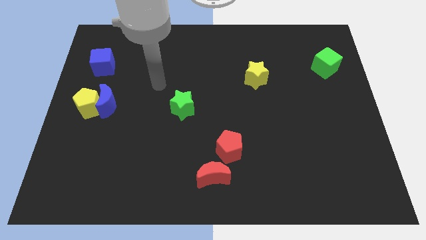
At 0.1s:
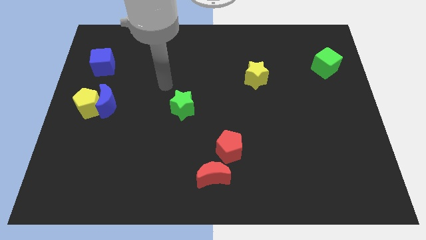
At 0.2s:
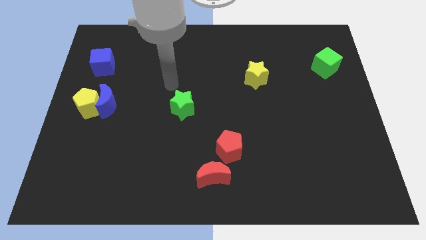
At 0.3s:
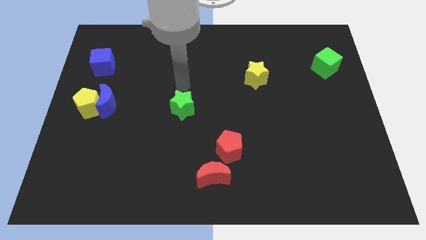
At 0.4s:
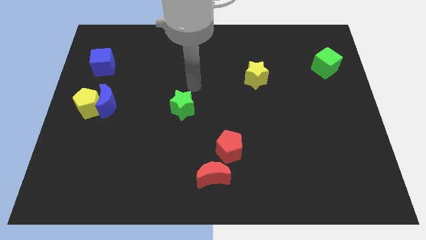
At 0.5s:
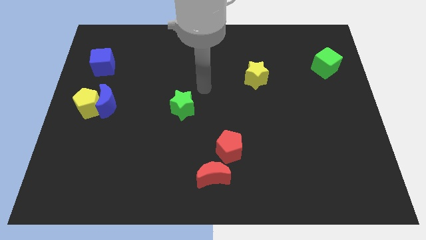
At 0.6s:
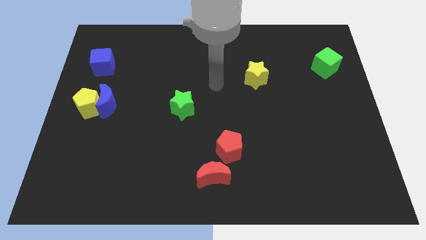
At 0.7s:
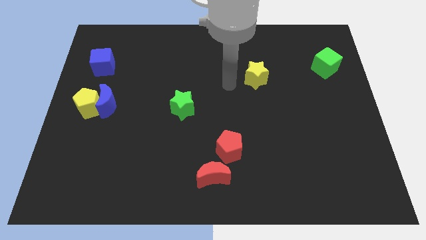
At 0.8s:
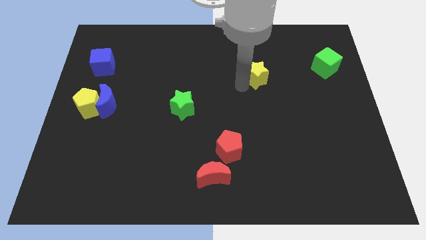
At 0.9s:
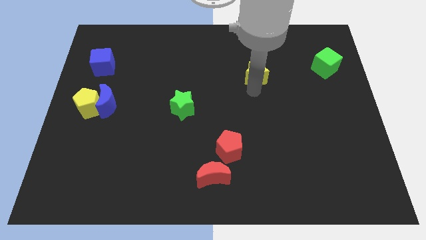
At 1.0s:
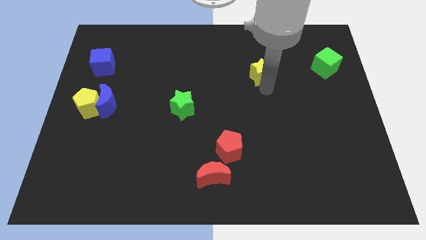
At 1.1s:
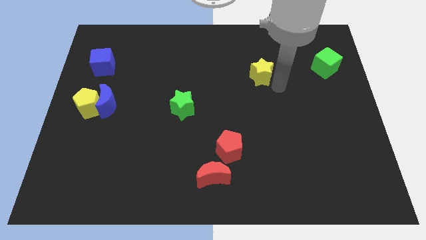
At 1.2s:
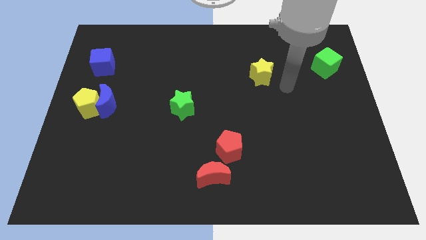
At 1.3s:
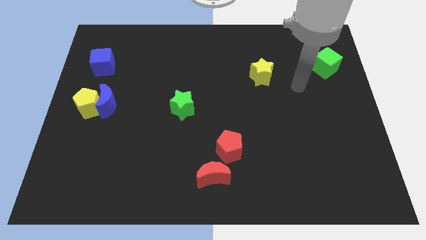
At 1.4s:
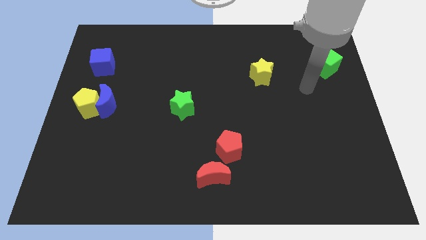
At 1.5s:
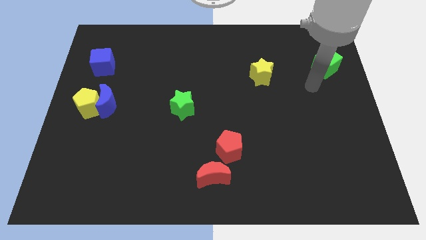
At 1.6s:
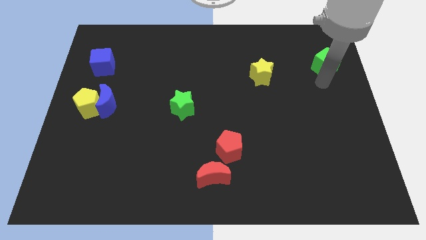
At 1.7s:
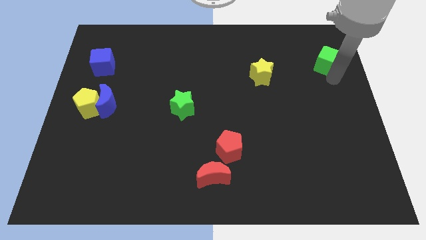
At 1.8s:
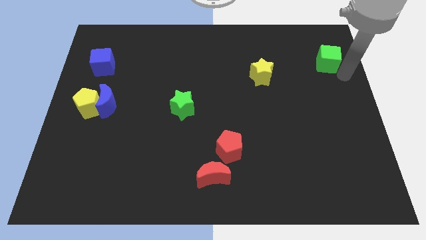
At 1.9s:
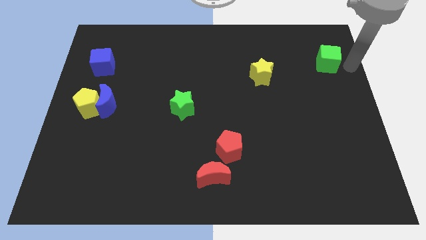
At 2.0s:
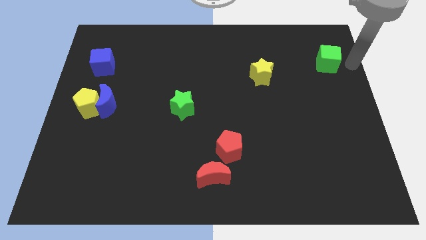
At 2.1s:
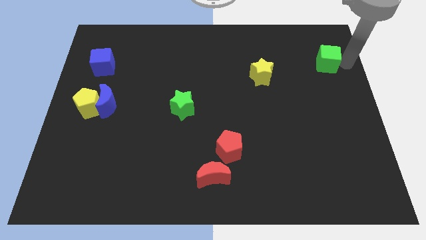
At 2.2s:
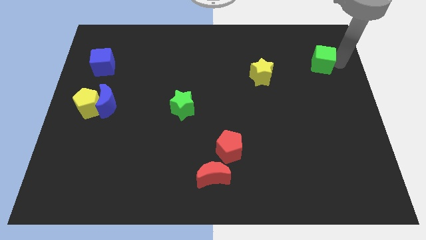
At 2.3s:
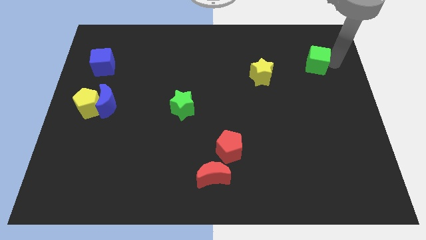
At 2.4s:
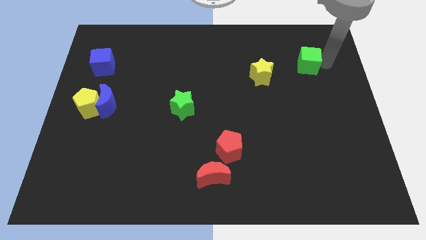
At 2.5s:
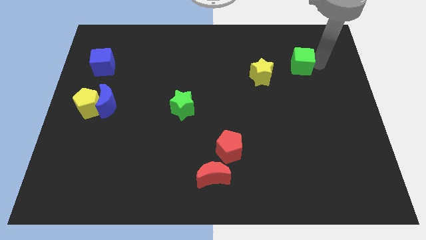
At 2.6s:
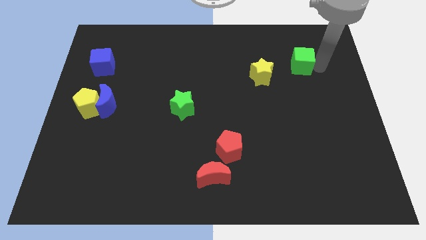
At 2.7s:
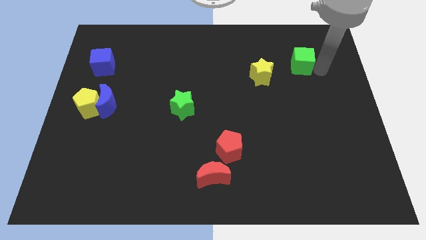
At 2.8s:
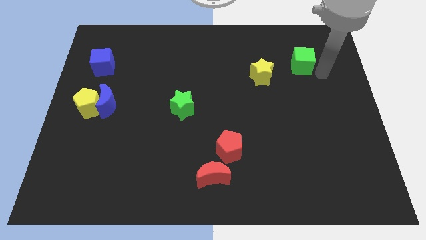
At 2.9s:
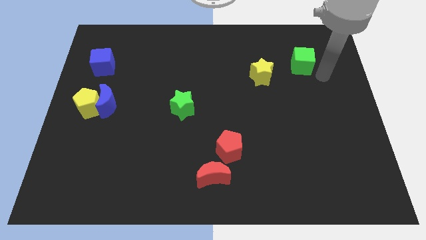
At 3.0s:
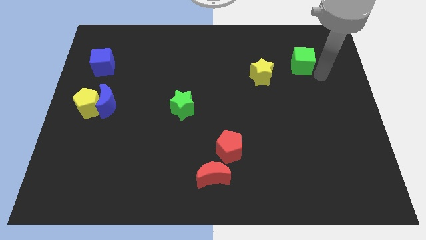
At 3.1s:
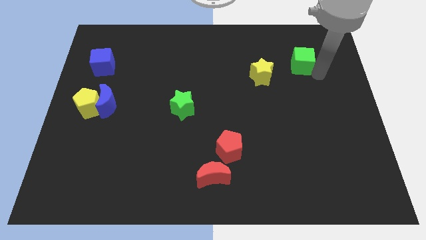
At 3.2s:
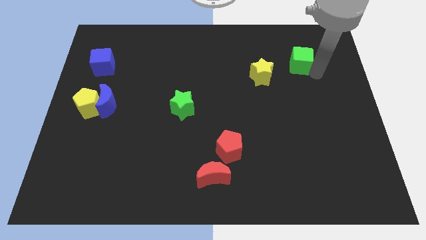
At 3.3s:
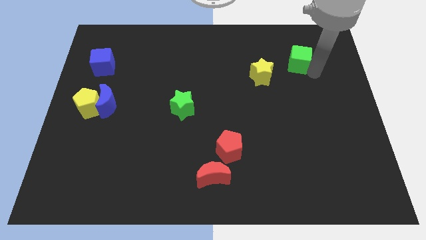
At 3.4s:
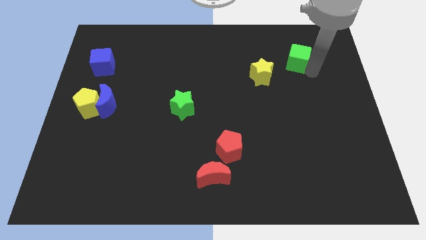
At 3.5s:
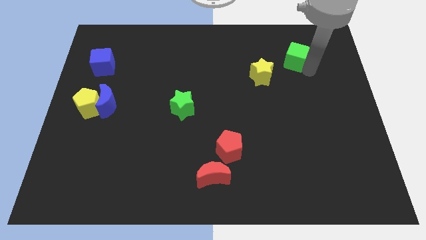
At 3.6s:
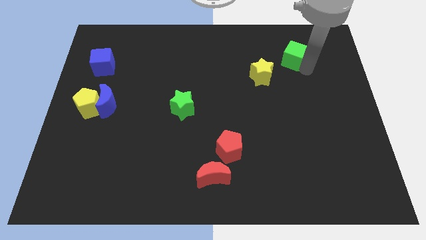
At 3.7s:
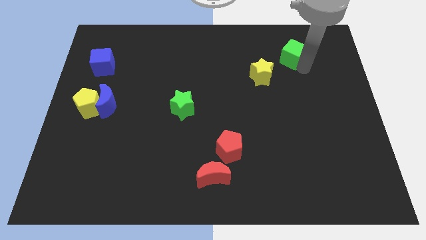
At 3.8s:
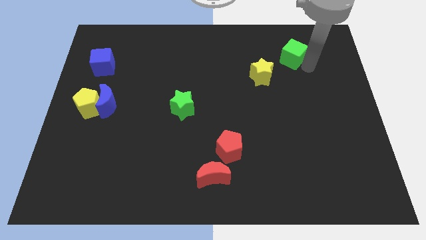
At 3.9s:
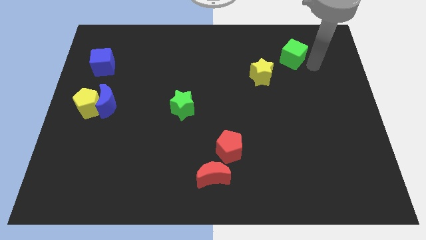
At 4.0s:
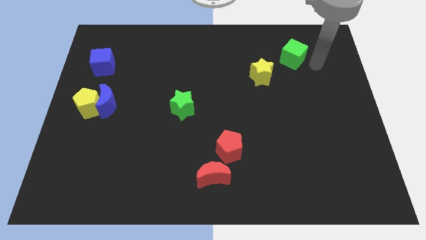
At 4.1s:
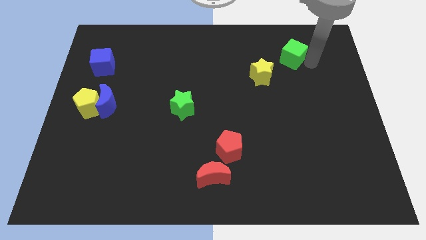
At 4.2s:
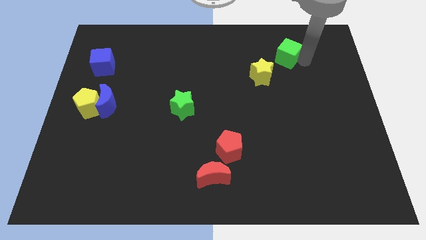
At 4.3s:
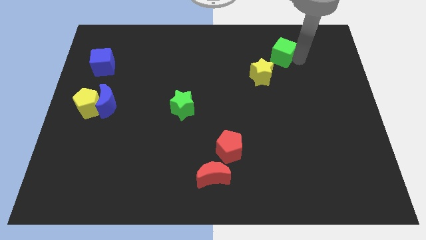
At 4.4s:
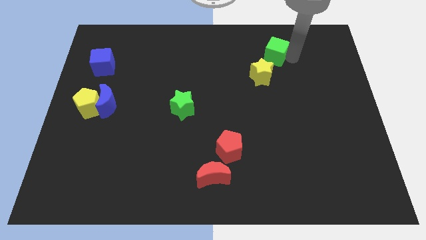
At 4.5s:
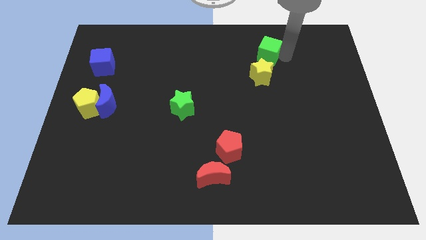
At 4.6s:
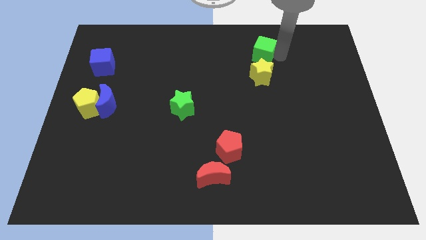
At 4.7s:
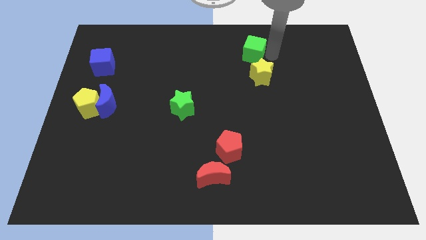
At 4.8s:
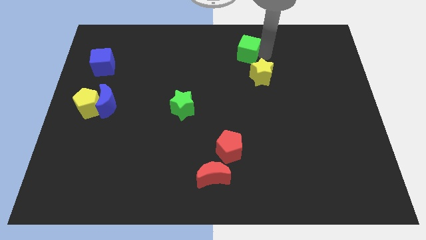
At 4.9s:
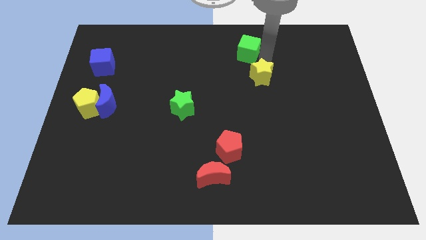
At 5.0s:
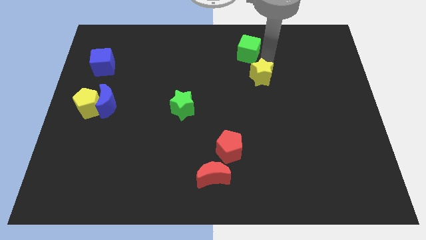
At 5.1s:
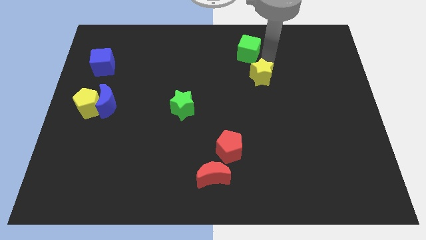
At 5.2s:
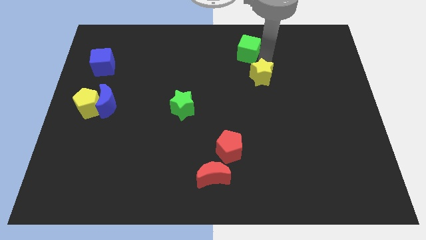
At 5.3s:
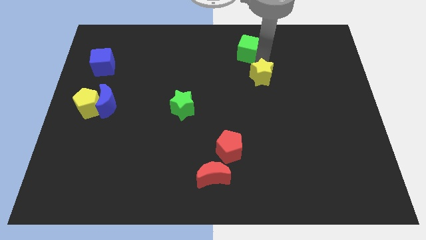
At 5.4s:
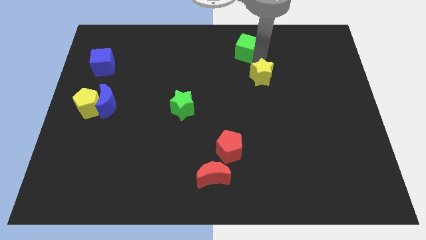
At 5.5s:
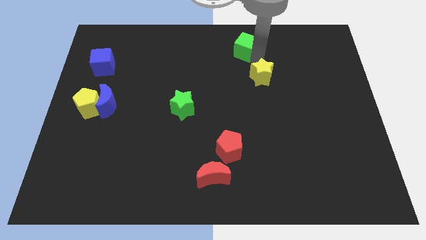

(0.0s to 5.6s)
slide the green cube to the top

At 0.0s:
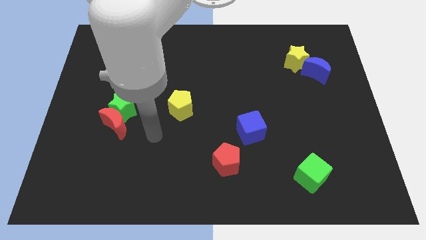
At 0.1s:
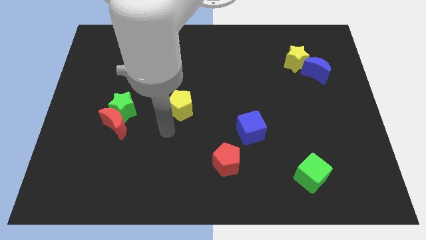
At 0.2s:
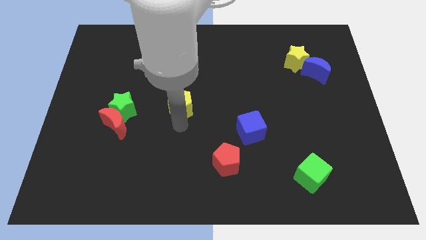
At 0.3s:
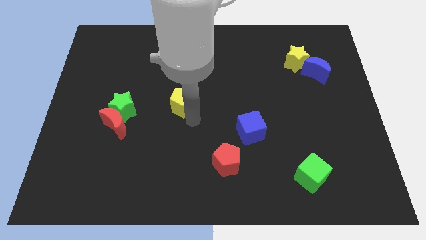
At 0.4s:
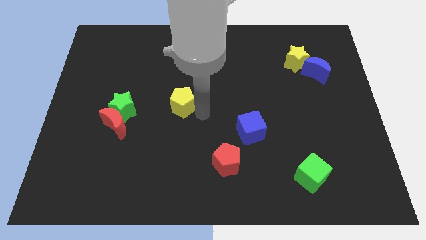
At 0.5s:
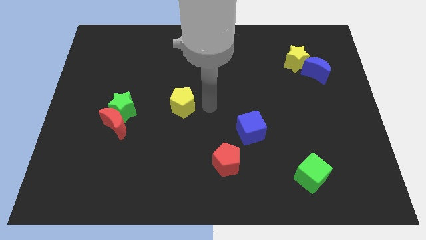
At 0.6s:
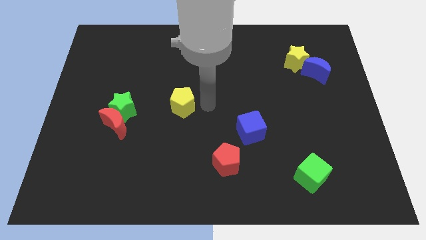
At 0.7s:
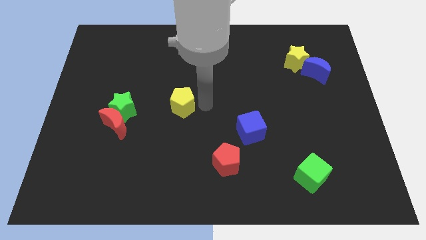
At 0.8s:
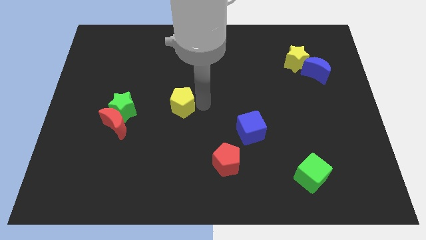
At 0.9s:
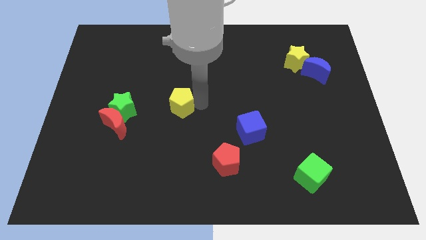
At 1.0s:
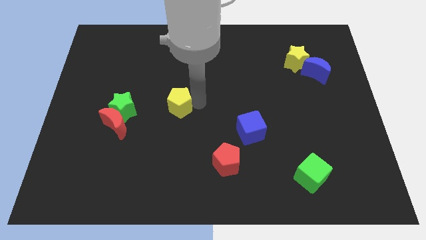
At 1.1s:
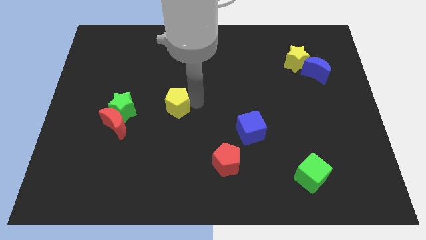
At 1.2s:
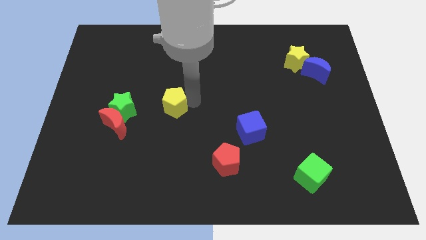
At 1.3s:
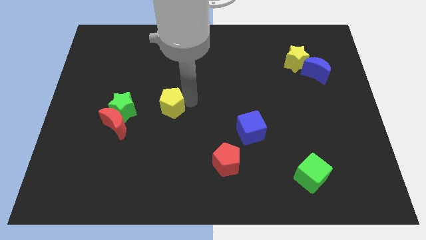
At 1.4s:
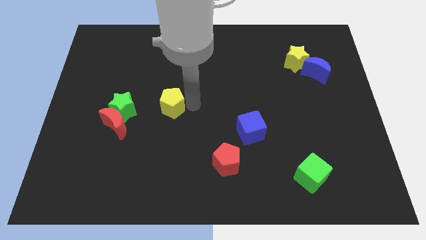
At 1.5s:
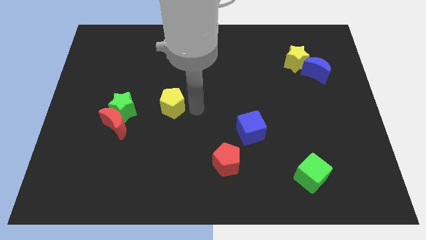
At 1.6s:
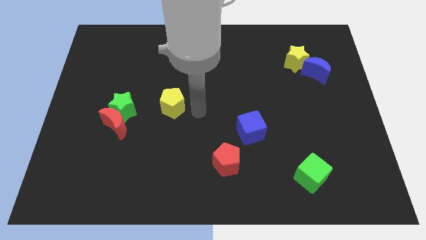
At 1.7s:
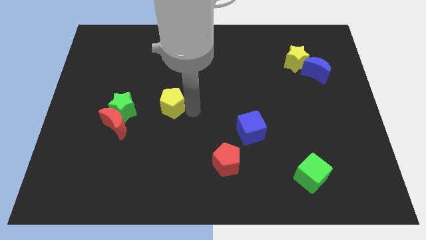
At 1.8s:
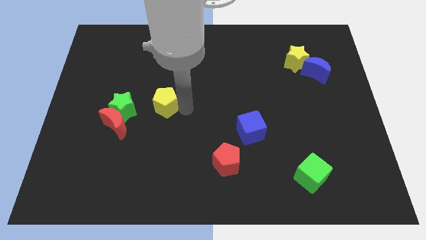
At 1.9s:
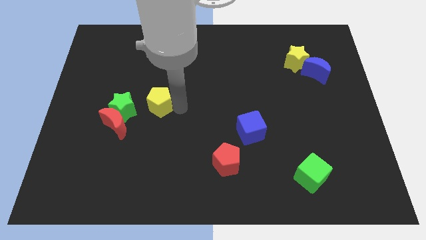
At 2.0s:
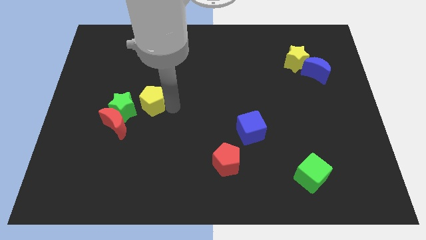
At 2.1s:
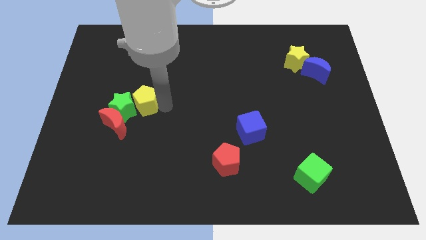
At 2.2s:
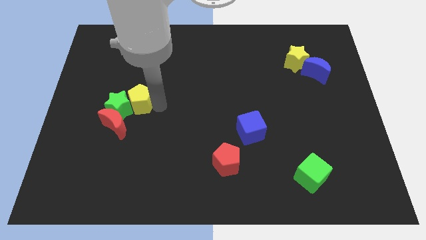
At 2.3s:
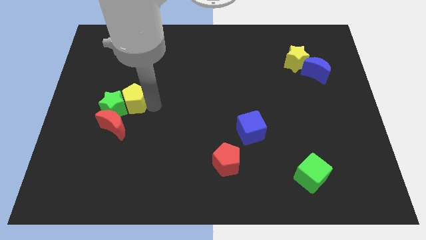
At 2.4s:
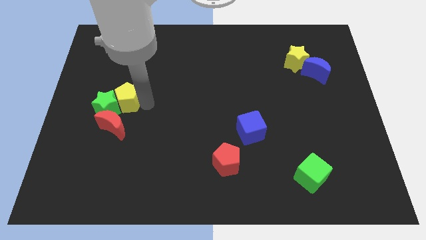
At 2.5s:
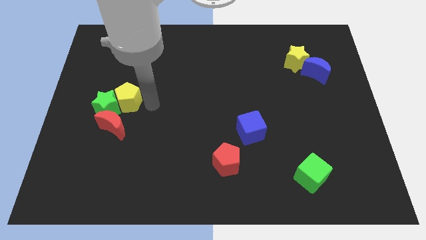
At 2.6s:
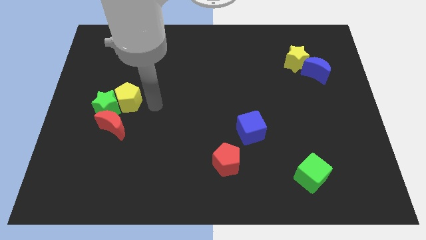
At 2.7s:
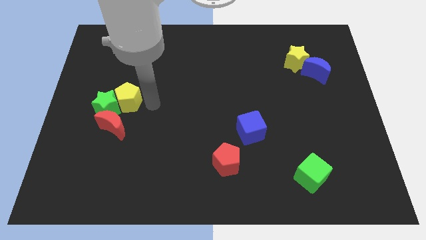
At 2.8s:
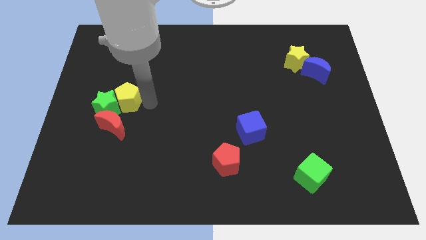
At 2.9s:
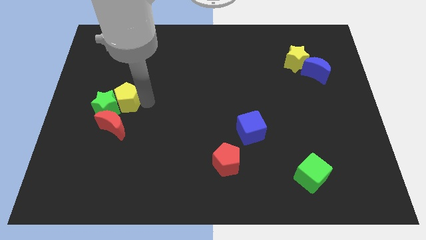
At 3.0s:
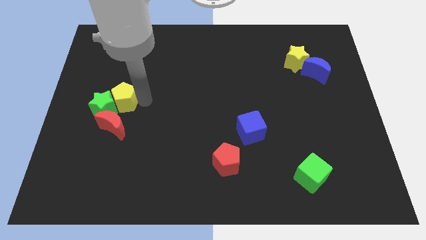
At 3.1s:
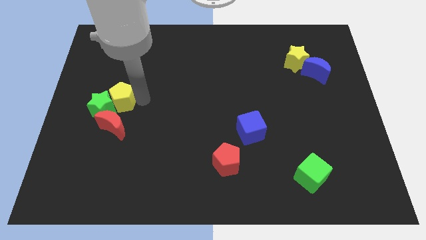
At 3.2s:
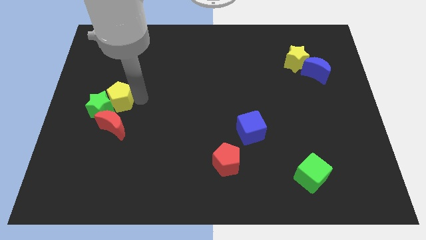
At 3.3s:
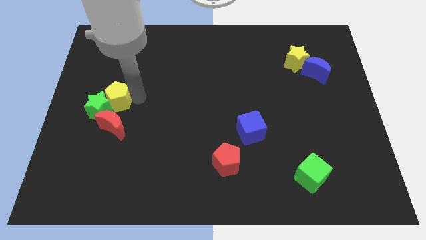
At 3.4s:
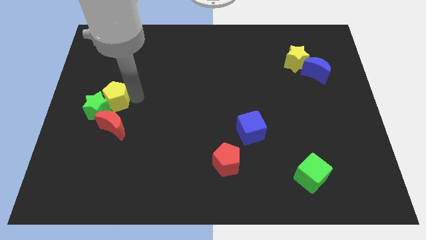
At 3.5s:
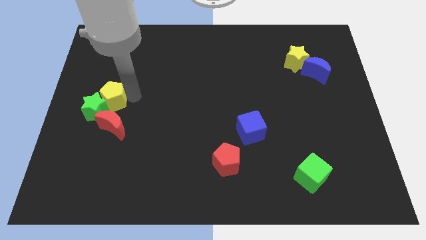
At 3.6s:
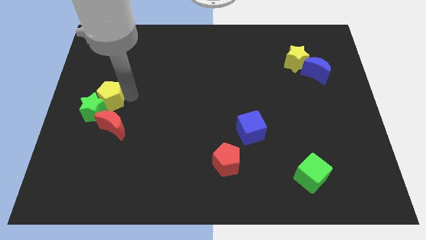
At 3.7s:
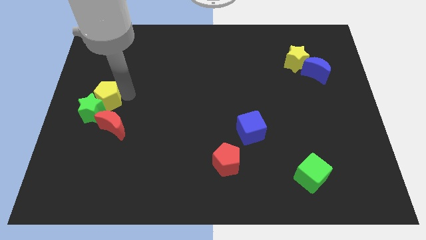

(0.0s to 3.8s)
put the yellow pentagon to the center left
